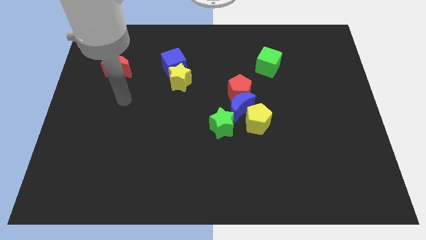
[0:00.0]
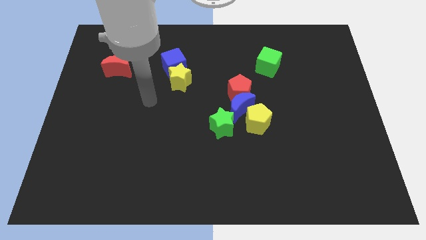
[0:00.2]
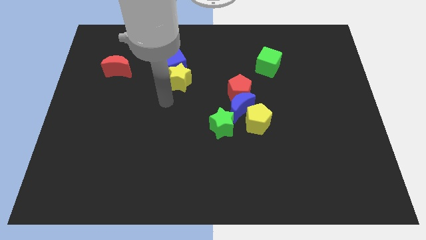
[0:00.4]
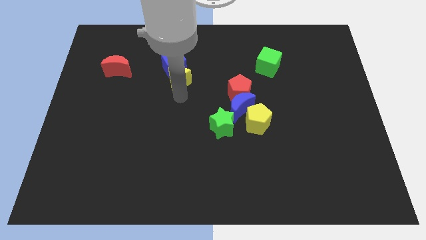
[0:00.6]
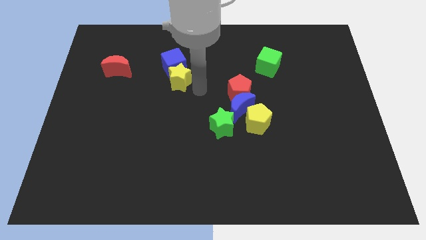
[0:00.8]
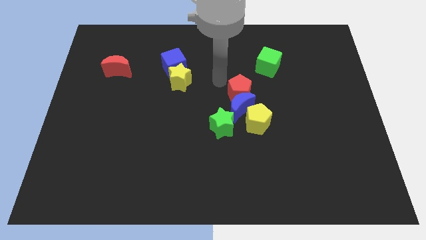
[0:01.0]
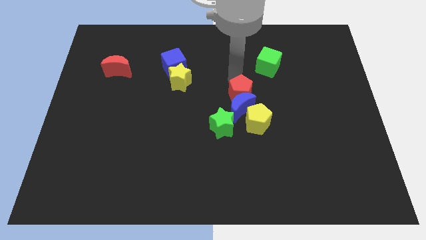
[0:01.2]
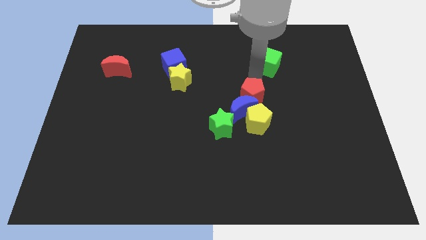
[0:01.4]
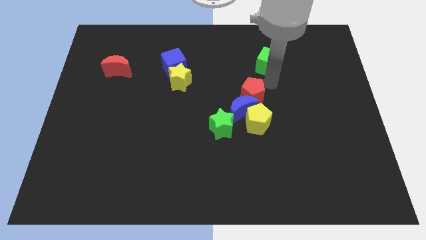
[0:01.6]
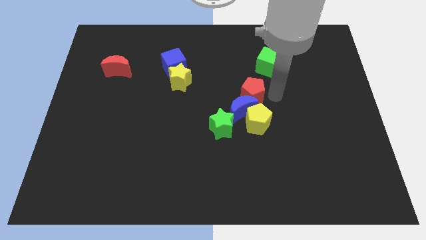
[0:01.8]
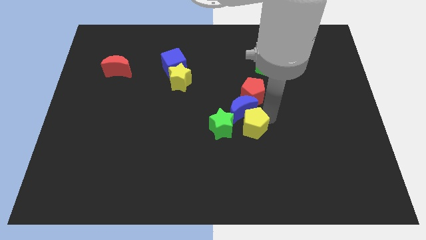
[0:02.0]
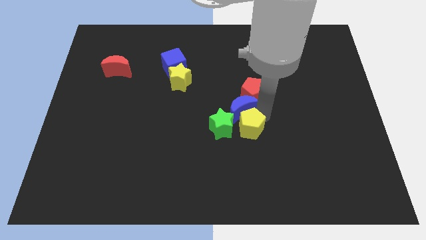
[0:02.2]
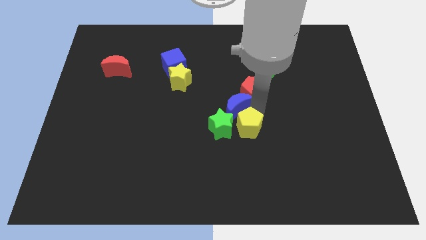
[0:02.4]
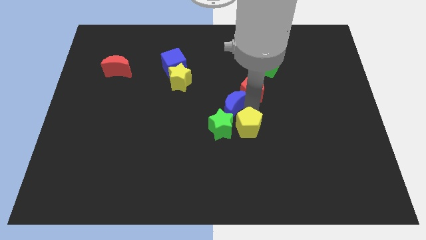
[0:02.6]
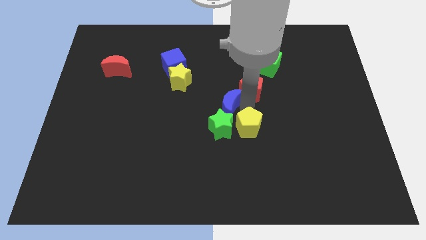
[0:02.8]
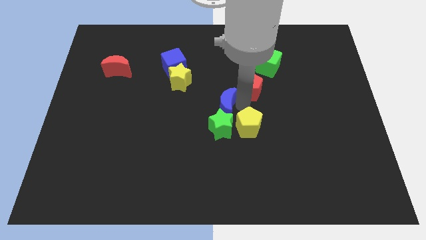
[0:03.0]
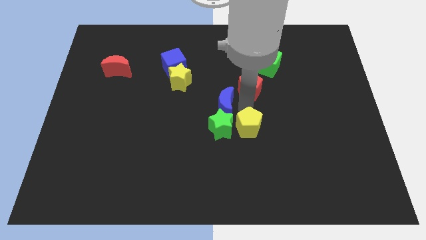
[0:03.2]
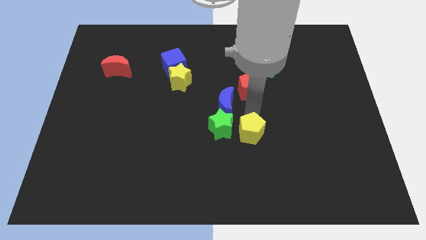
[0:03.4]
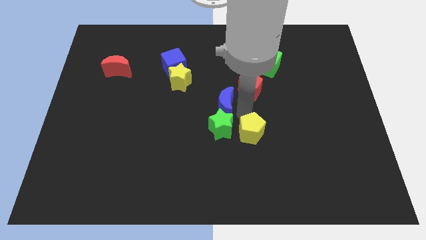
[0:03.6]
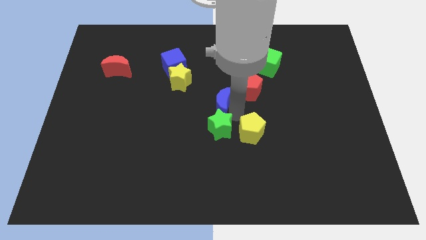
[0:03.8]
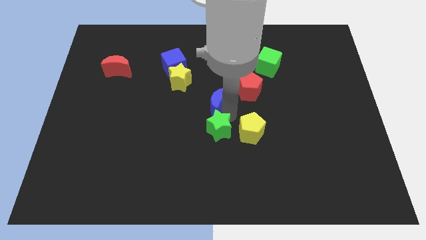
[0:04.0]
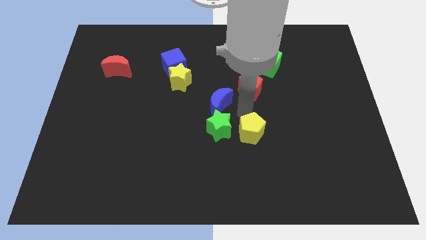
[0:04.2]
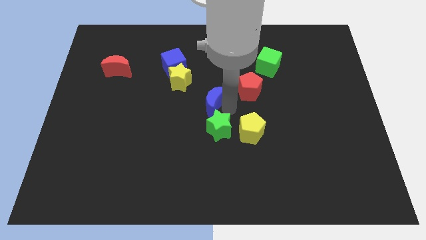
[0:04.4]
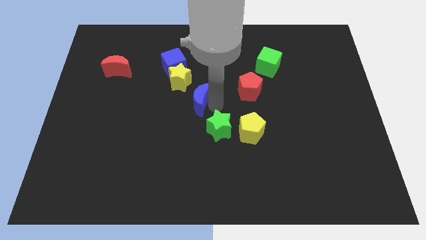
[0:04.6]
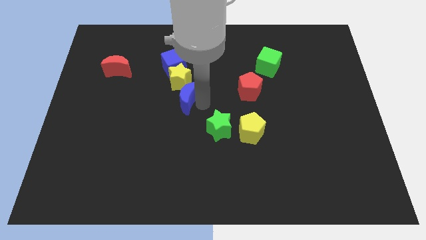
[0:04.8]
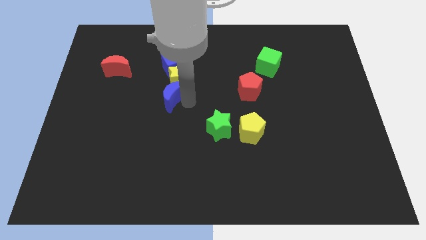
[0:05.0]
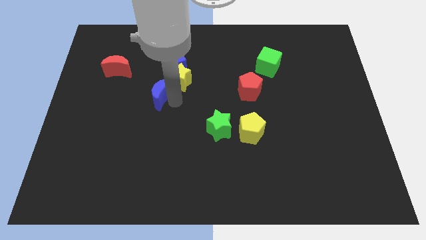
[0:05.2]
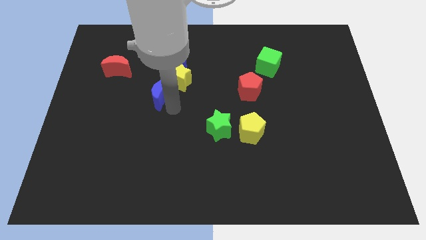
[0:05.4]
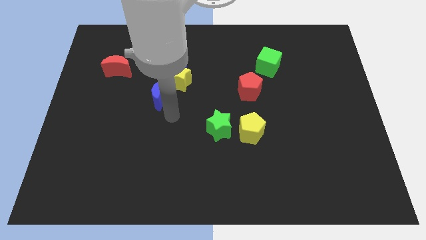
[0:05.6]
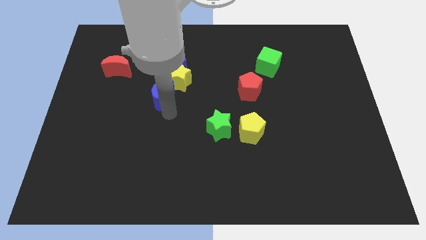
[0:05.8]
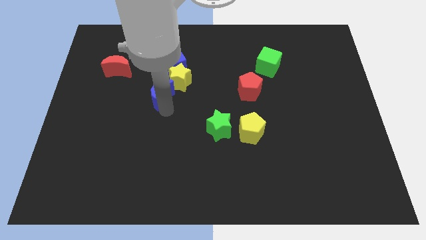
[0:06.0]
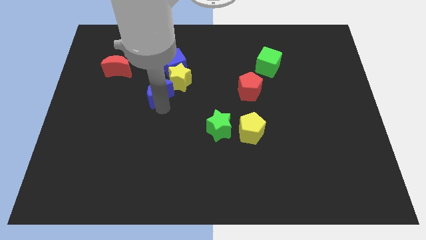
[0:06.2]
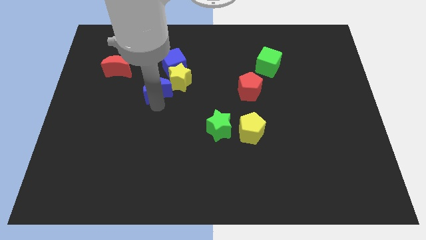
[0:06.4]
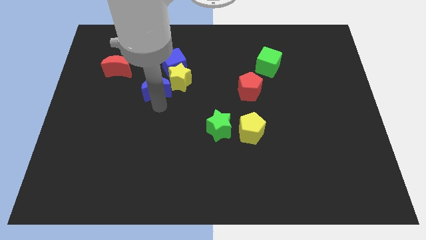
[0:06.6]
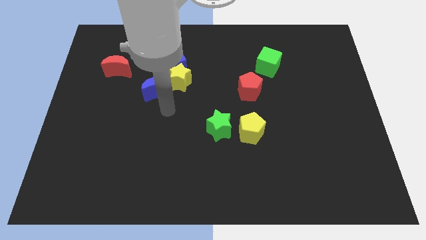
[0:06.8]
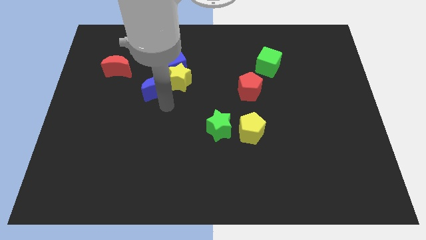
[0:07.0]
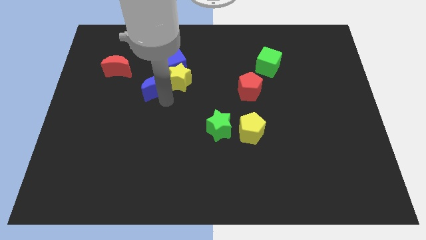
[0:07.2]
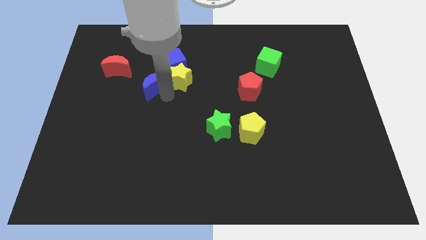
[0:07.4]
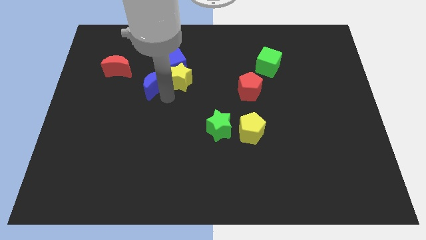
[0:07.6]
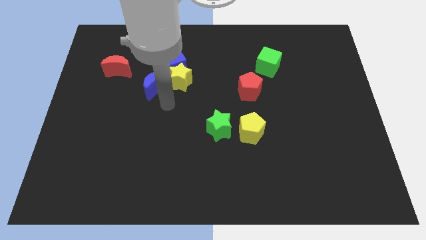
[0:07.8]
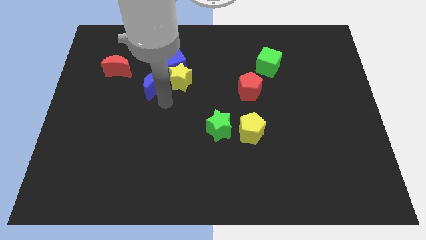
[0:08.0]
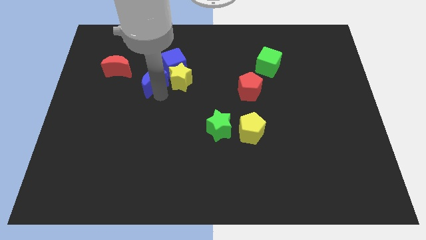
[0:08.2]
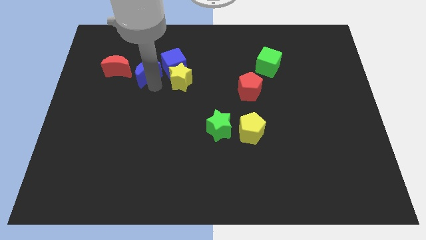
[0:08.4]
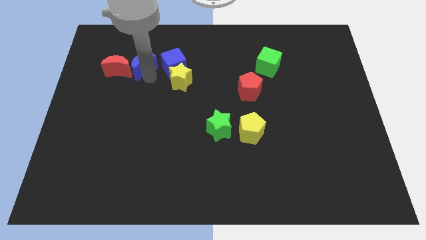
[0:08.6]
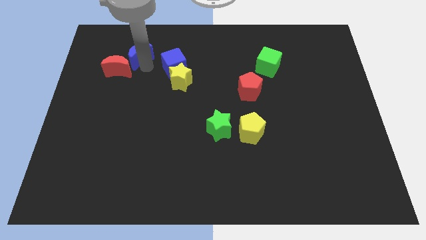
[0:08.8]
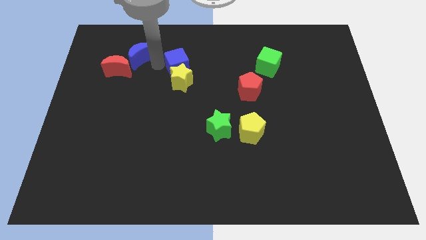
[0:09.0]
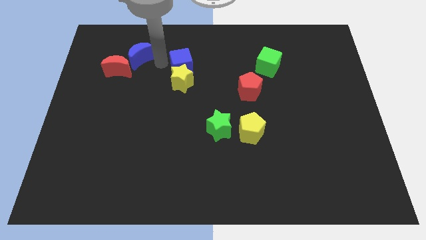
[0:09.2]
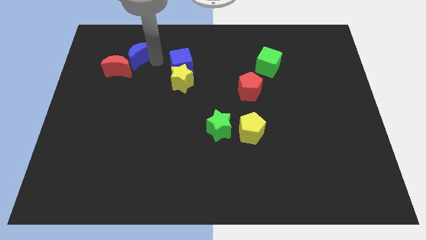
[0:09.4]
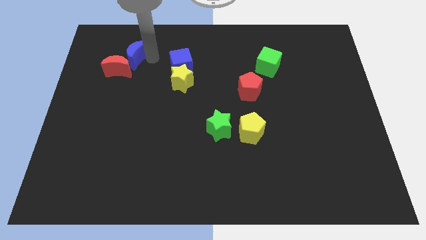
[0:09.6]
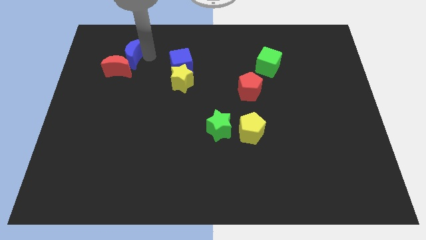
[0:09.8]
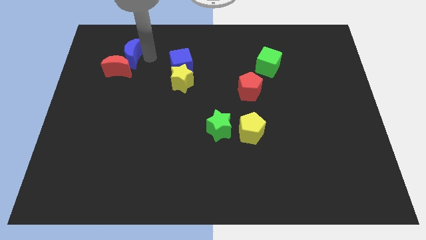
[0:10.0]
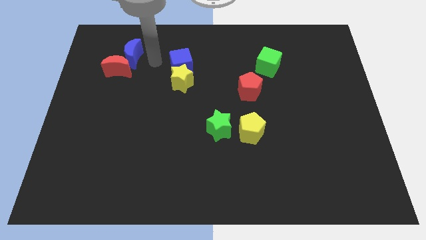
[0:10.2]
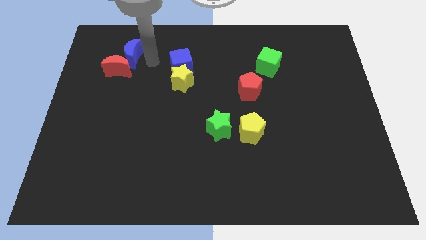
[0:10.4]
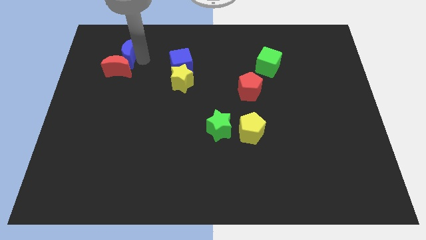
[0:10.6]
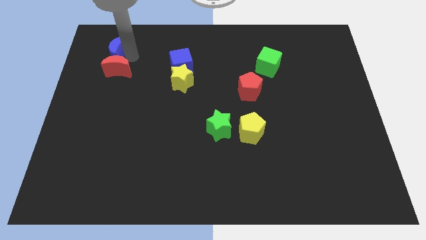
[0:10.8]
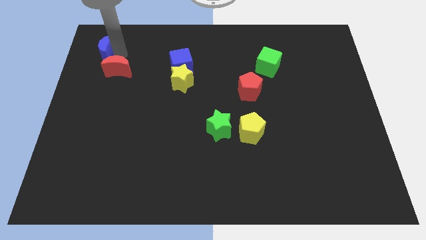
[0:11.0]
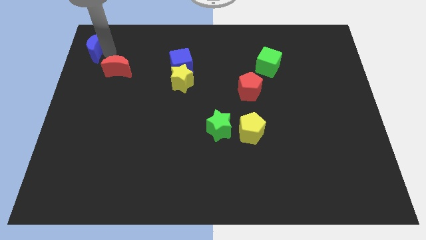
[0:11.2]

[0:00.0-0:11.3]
slide the blue moon to the upper left corner

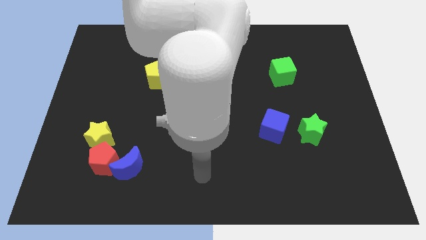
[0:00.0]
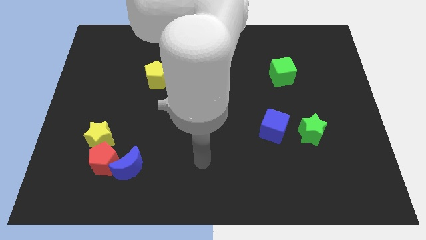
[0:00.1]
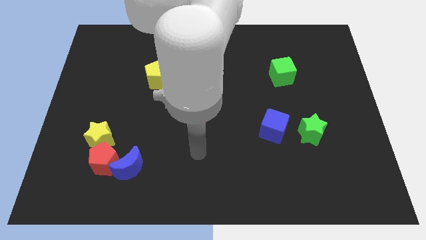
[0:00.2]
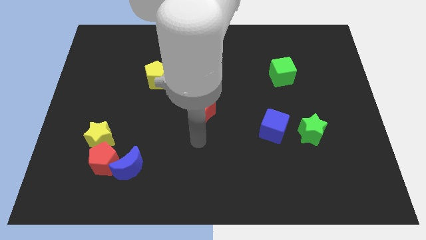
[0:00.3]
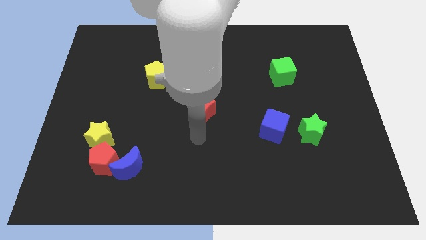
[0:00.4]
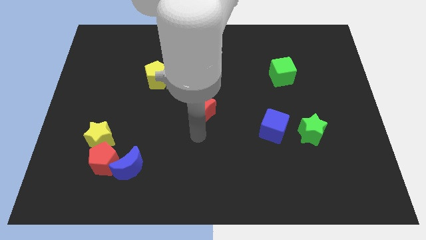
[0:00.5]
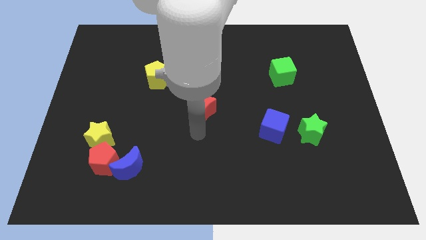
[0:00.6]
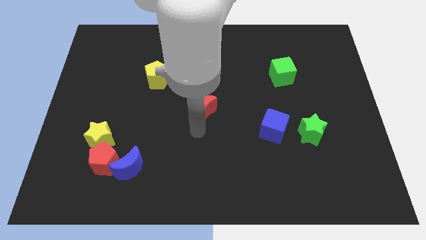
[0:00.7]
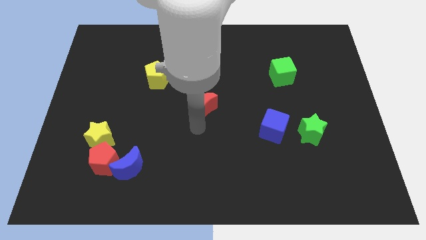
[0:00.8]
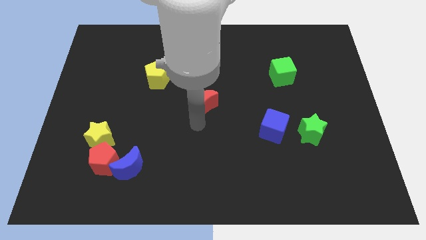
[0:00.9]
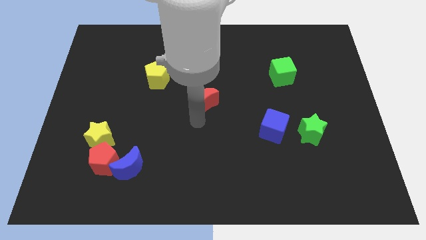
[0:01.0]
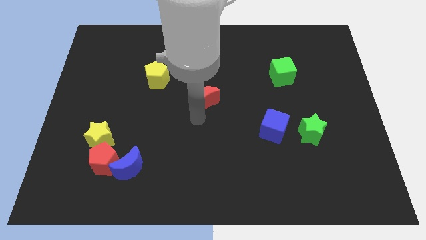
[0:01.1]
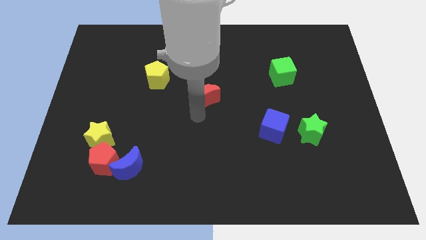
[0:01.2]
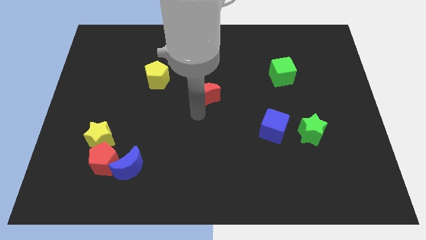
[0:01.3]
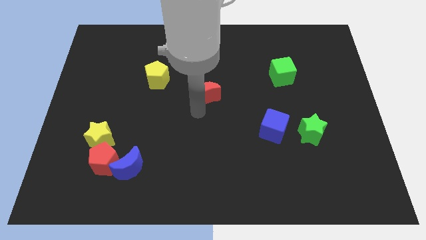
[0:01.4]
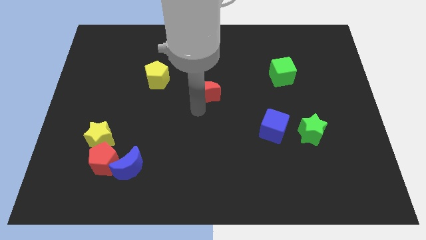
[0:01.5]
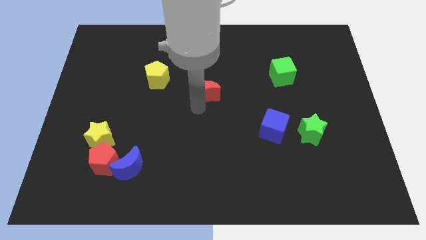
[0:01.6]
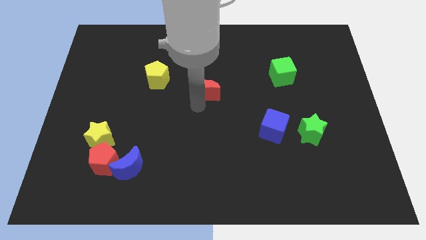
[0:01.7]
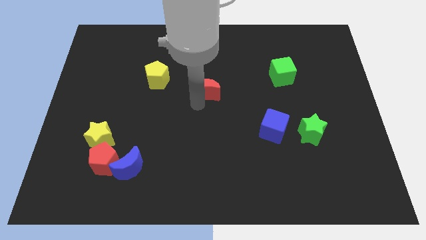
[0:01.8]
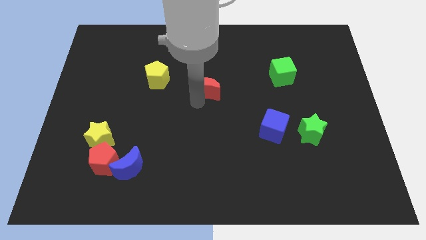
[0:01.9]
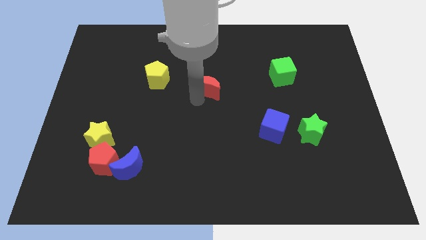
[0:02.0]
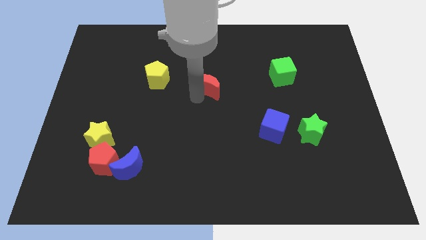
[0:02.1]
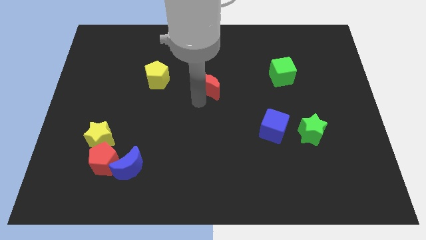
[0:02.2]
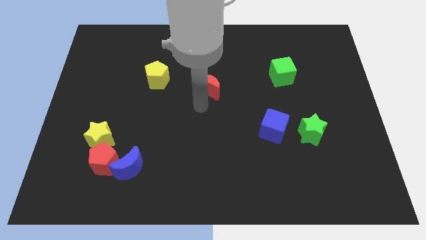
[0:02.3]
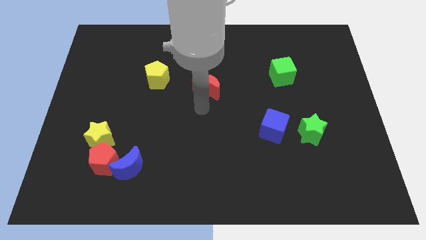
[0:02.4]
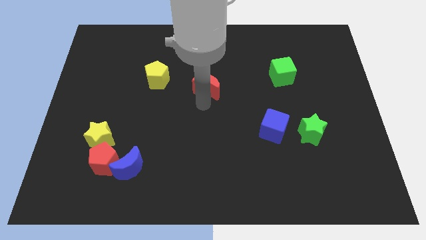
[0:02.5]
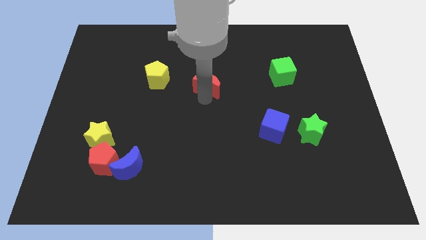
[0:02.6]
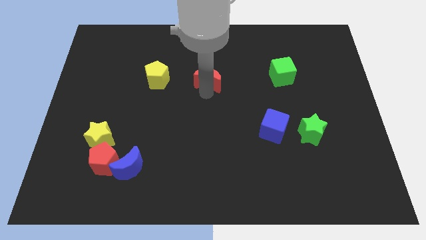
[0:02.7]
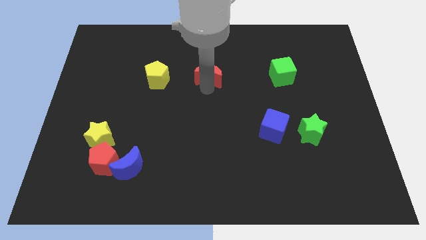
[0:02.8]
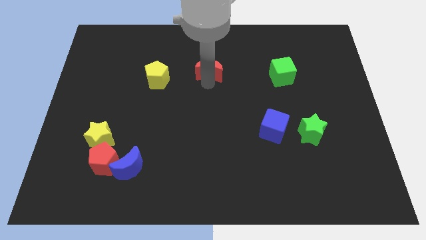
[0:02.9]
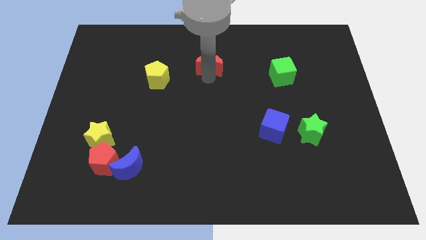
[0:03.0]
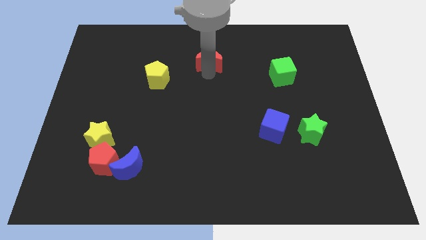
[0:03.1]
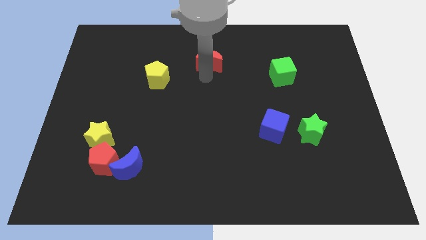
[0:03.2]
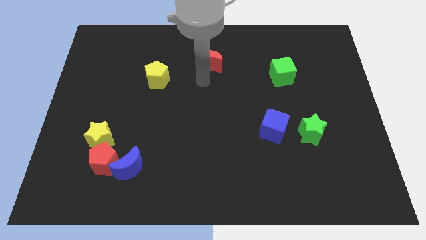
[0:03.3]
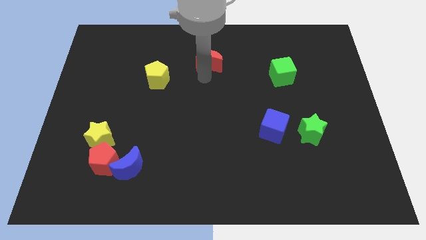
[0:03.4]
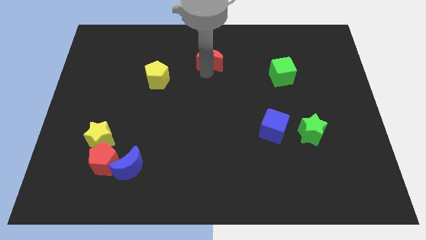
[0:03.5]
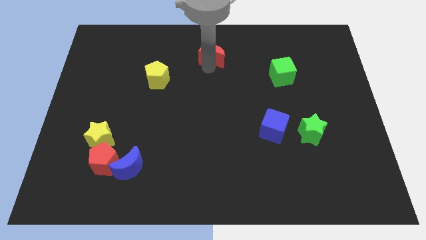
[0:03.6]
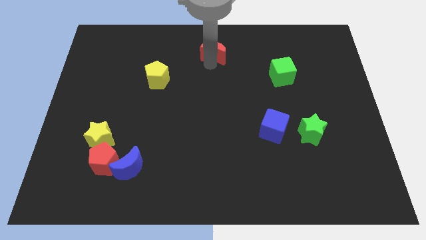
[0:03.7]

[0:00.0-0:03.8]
move the red moon to the towards your base
